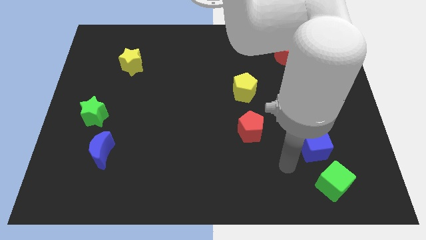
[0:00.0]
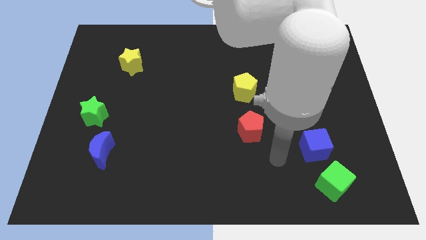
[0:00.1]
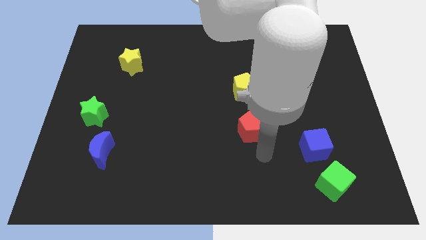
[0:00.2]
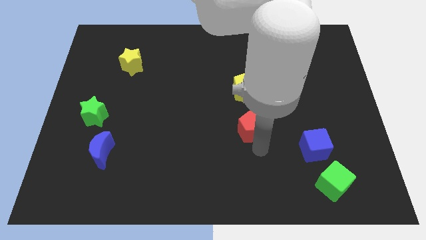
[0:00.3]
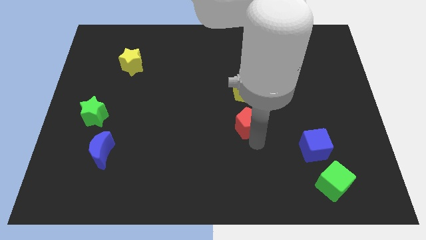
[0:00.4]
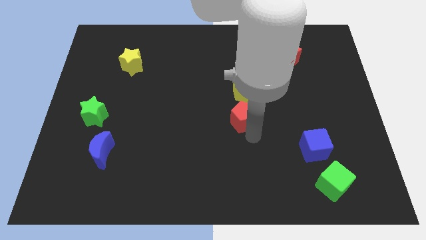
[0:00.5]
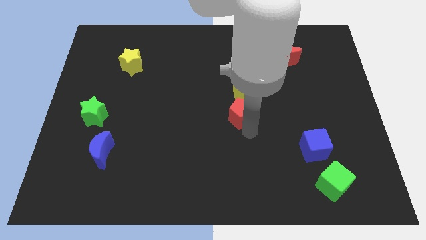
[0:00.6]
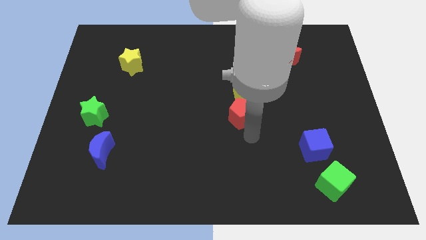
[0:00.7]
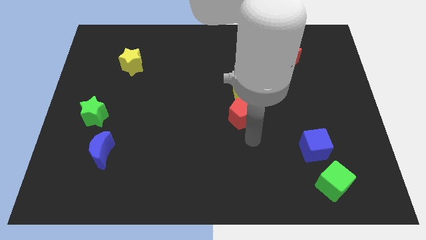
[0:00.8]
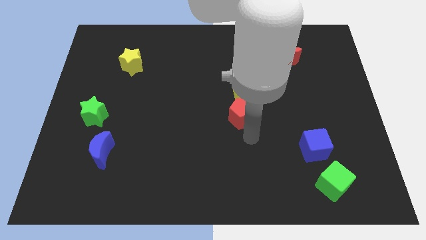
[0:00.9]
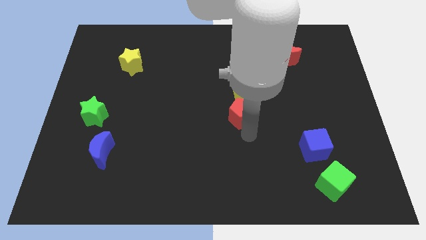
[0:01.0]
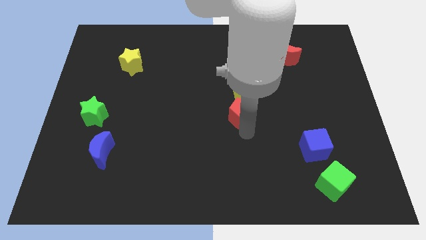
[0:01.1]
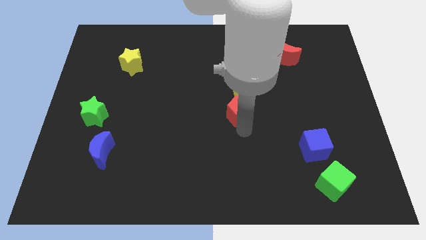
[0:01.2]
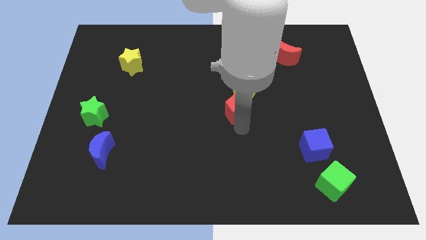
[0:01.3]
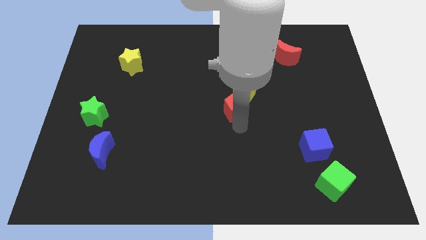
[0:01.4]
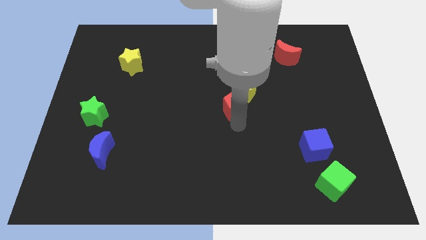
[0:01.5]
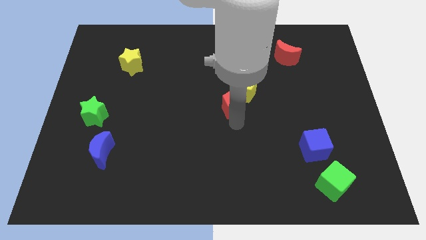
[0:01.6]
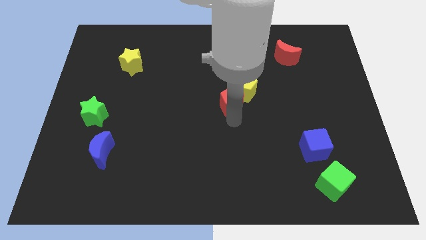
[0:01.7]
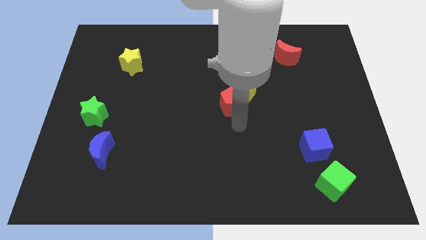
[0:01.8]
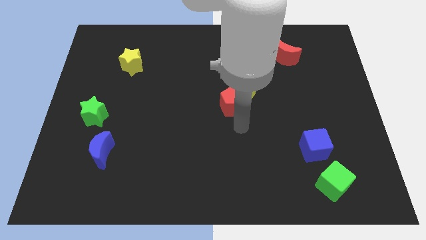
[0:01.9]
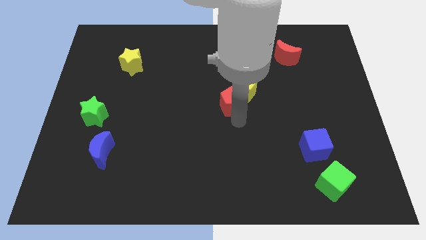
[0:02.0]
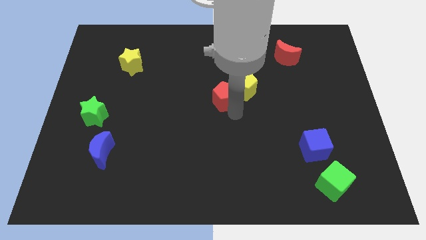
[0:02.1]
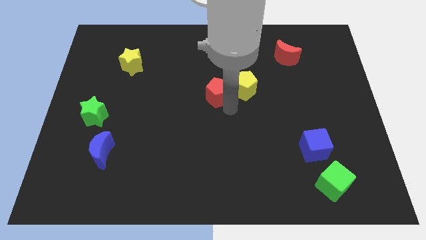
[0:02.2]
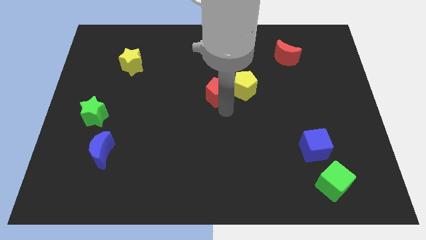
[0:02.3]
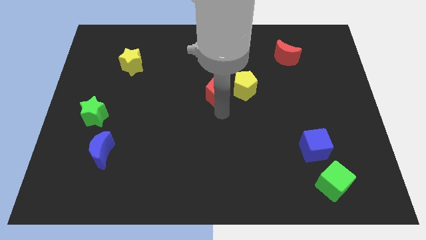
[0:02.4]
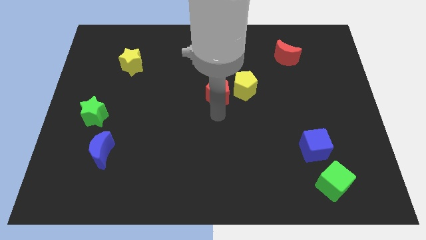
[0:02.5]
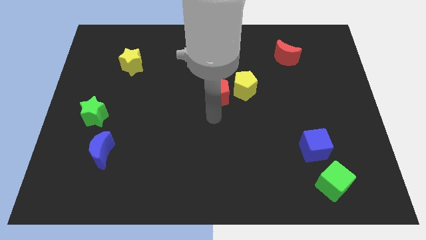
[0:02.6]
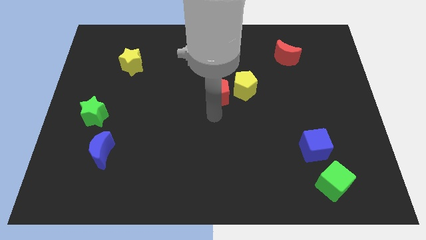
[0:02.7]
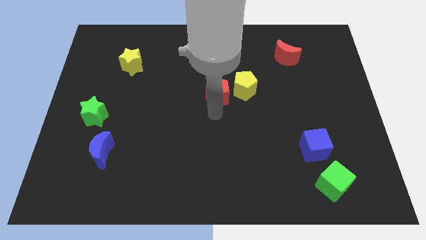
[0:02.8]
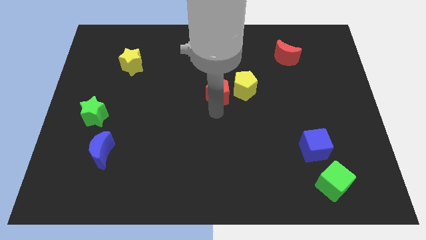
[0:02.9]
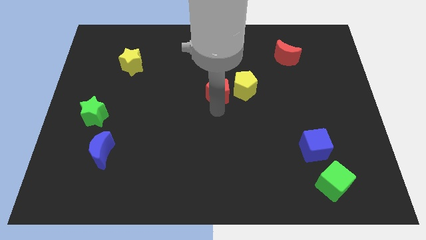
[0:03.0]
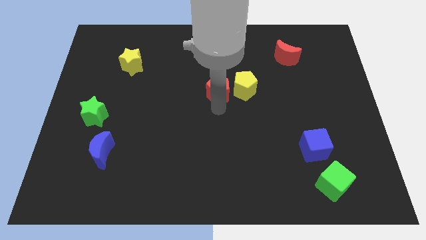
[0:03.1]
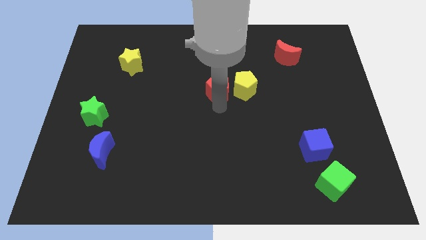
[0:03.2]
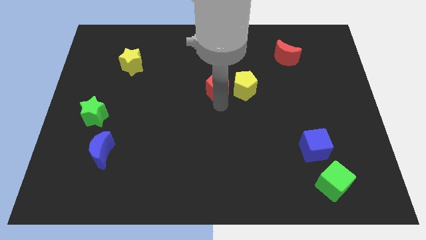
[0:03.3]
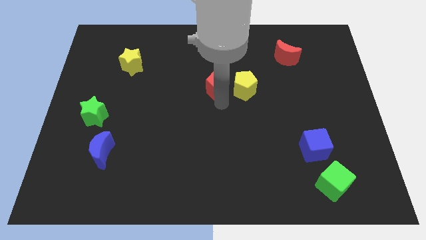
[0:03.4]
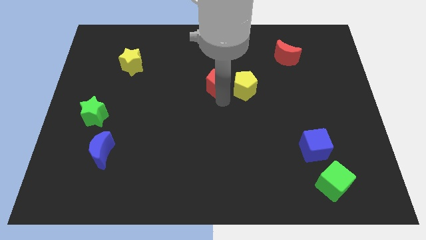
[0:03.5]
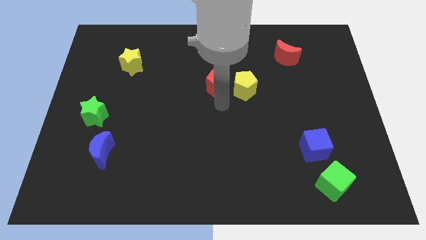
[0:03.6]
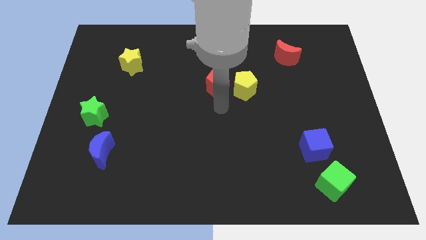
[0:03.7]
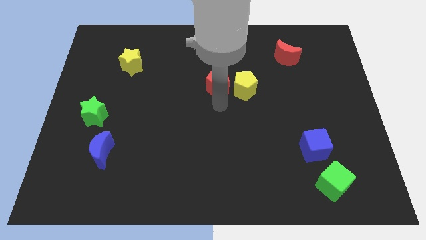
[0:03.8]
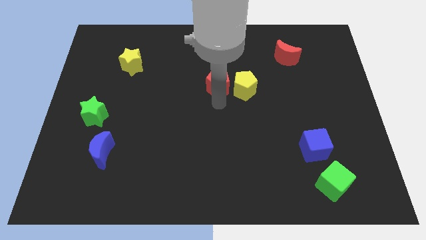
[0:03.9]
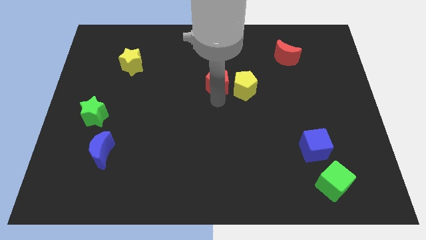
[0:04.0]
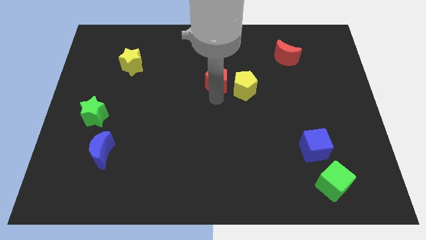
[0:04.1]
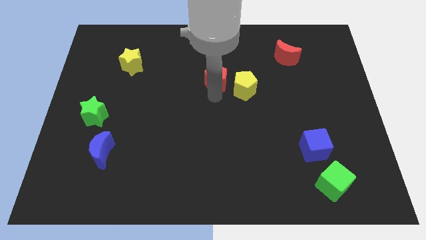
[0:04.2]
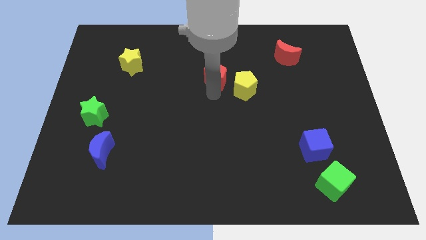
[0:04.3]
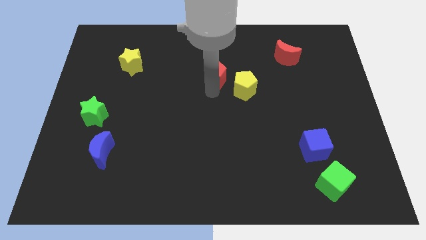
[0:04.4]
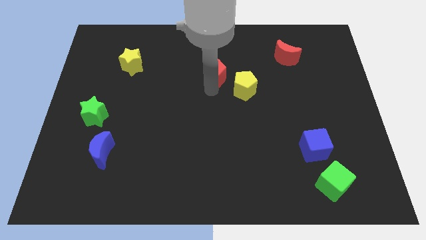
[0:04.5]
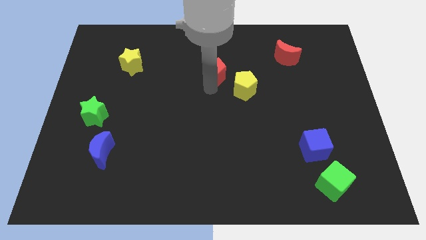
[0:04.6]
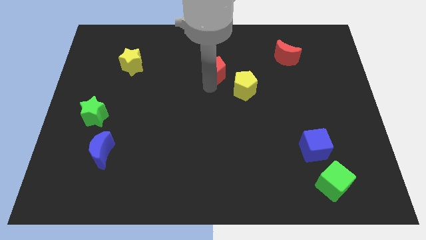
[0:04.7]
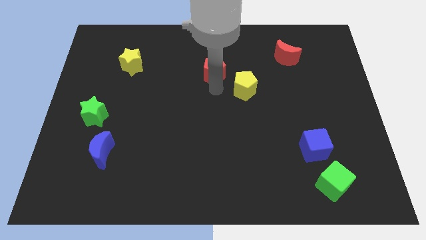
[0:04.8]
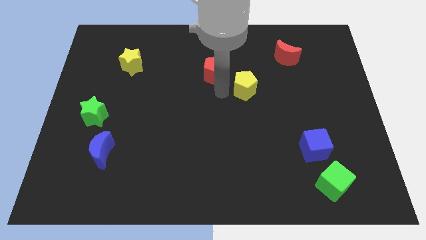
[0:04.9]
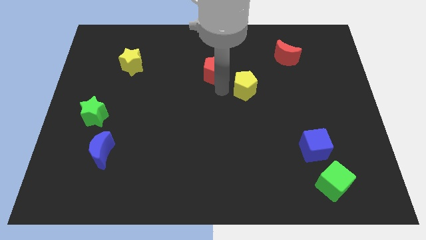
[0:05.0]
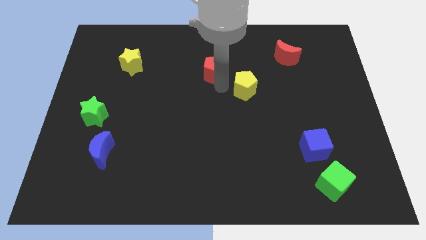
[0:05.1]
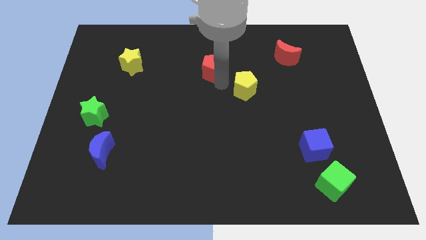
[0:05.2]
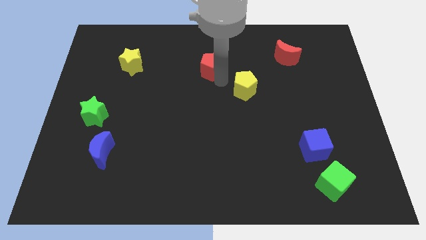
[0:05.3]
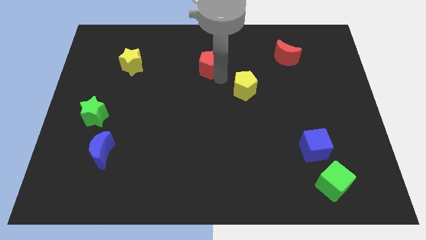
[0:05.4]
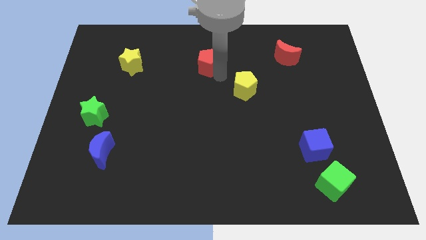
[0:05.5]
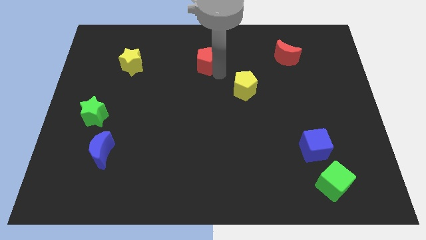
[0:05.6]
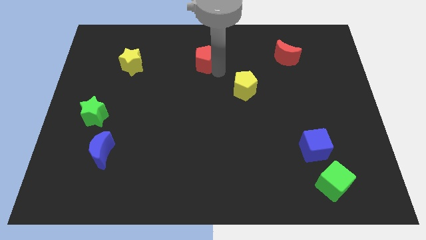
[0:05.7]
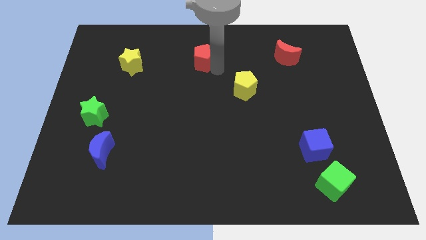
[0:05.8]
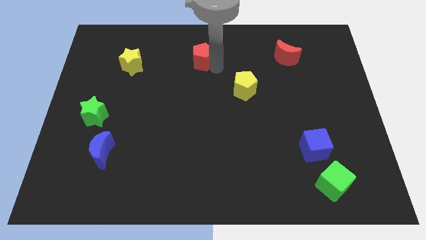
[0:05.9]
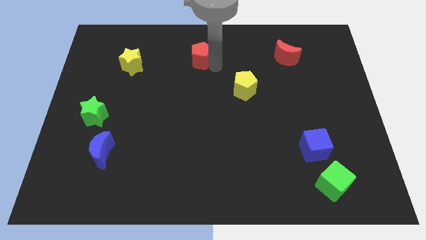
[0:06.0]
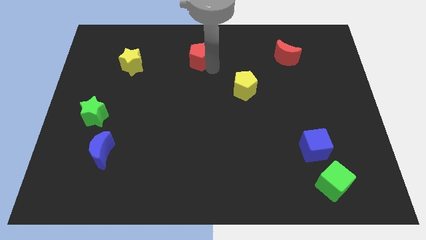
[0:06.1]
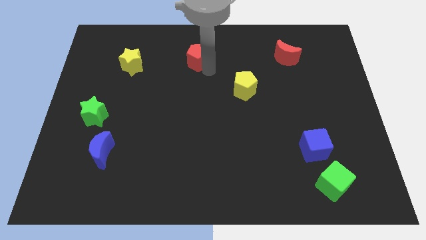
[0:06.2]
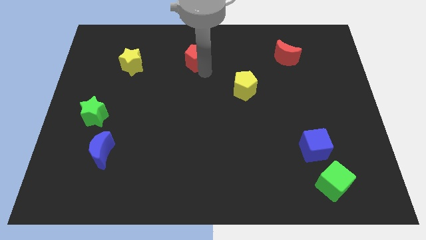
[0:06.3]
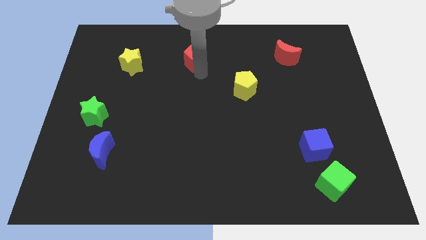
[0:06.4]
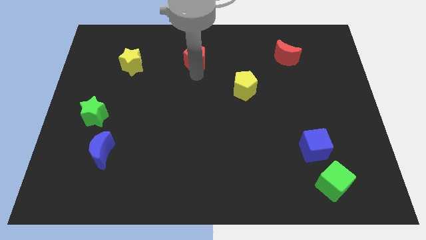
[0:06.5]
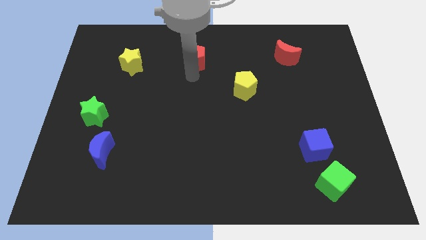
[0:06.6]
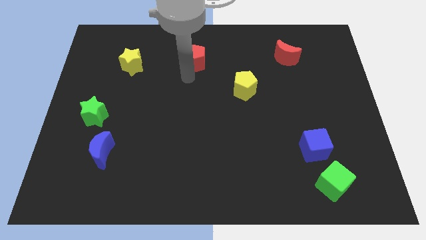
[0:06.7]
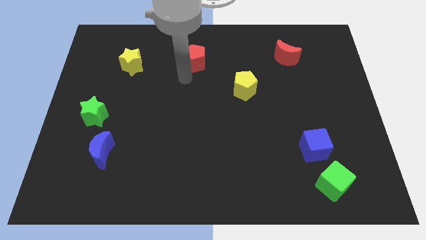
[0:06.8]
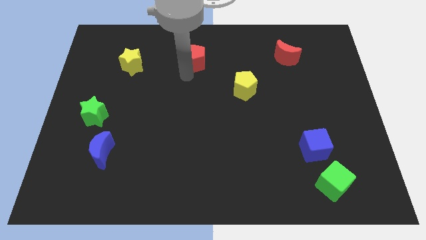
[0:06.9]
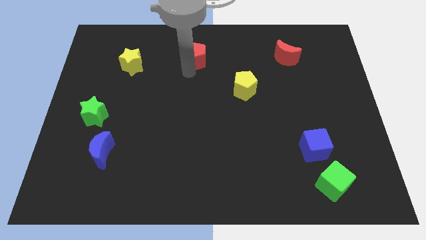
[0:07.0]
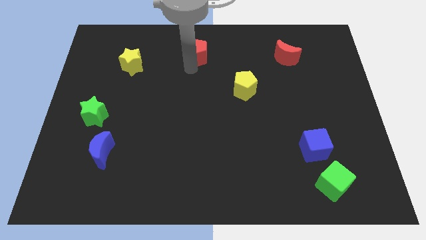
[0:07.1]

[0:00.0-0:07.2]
push the red pentagon to the top
